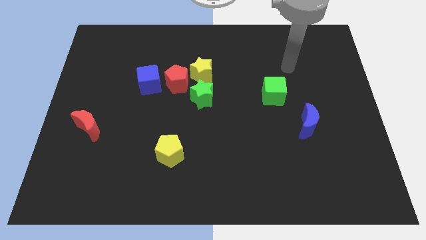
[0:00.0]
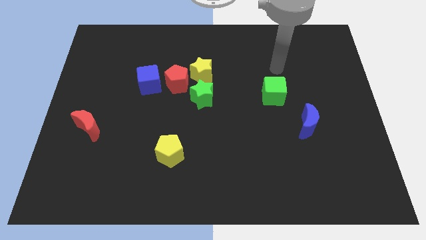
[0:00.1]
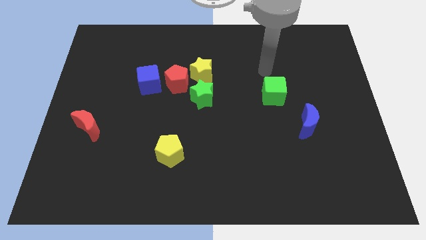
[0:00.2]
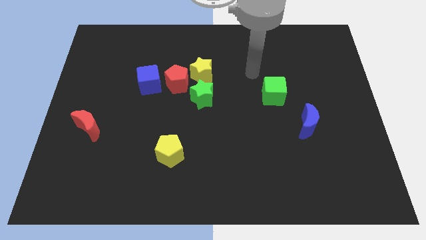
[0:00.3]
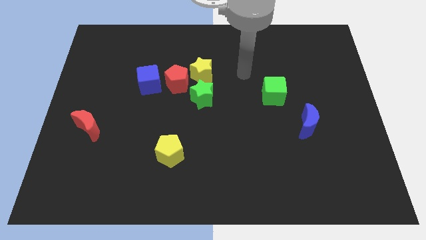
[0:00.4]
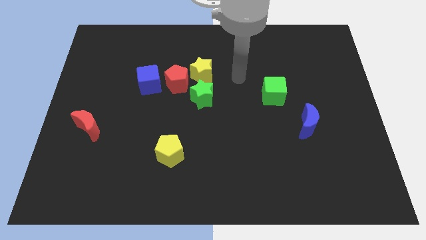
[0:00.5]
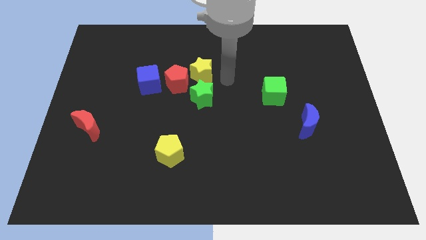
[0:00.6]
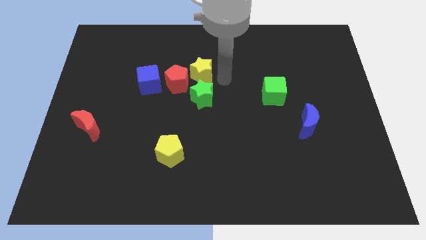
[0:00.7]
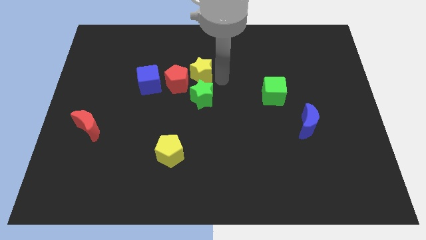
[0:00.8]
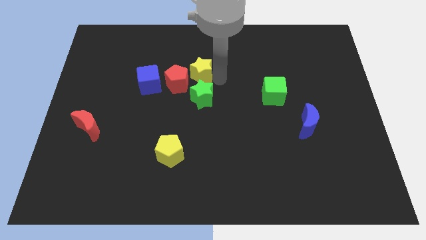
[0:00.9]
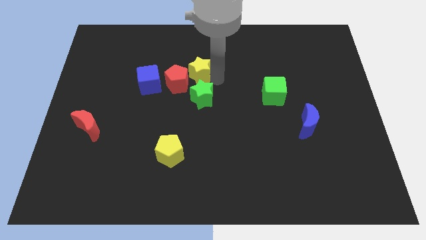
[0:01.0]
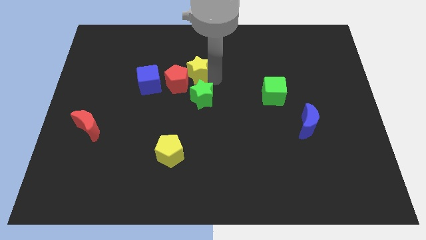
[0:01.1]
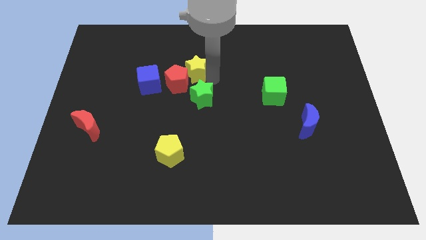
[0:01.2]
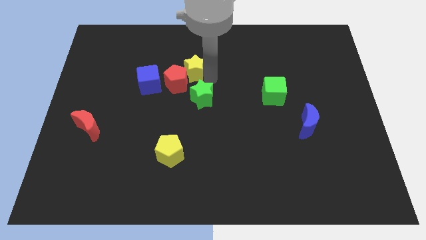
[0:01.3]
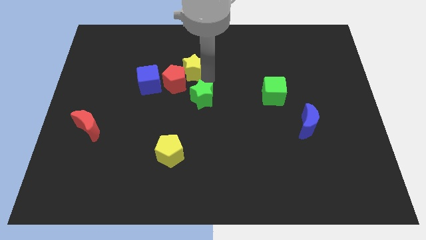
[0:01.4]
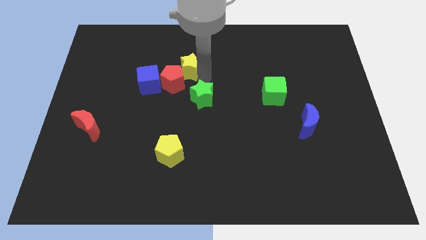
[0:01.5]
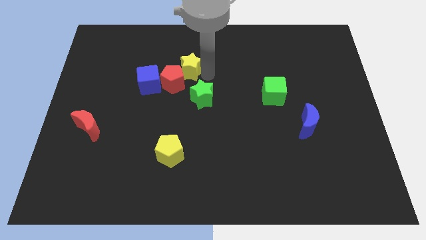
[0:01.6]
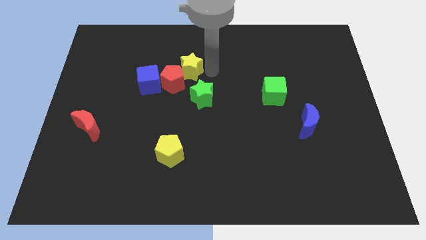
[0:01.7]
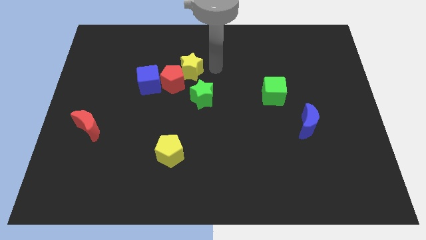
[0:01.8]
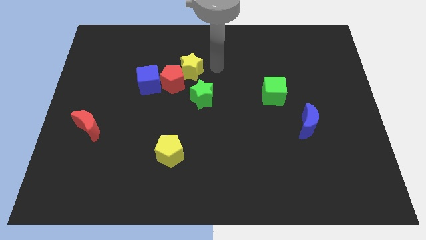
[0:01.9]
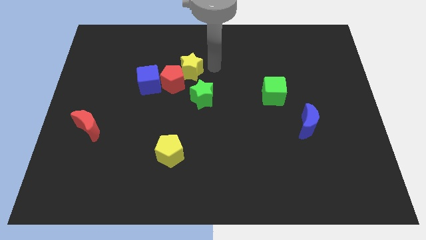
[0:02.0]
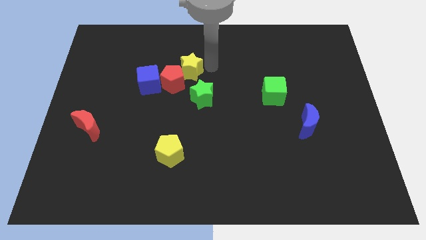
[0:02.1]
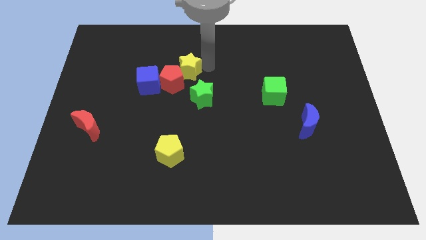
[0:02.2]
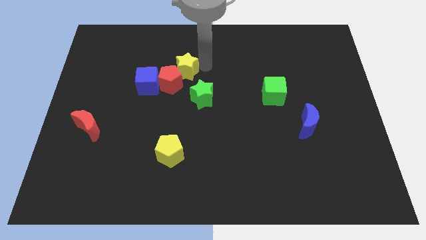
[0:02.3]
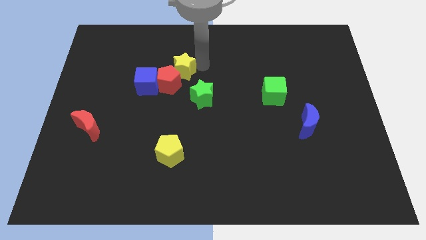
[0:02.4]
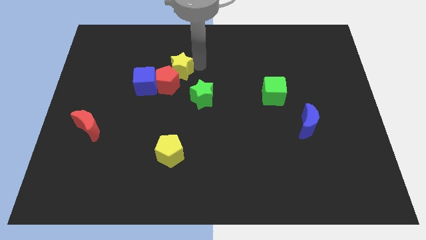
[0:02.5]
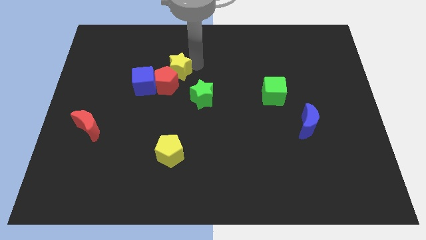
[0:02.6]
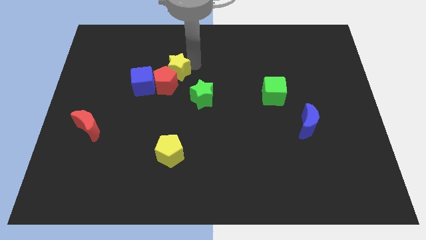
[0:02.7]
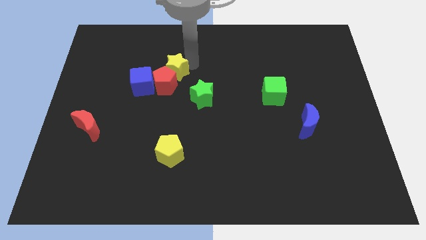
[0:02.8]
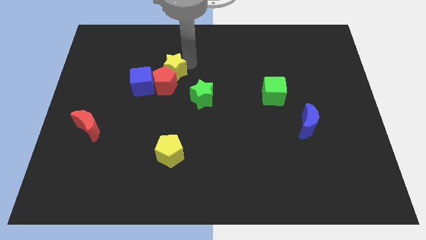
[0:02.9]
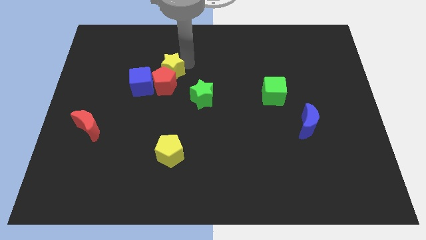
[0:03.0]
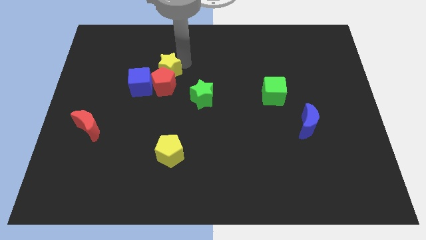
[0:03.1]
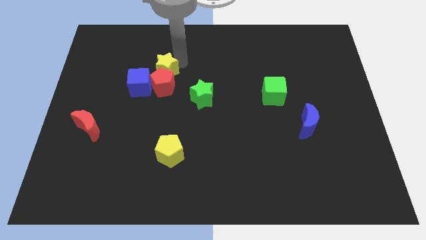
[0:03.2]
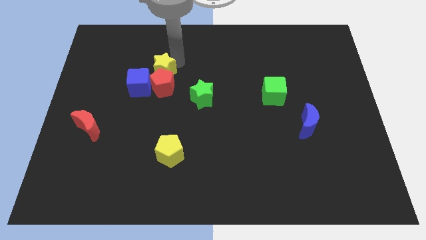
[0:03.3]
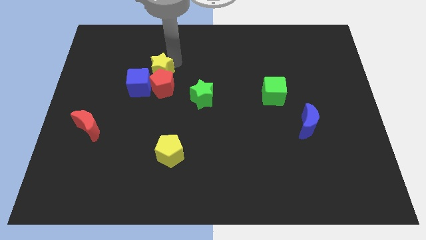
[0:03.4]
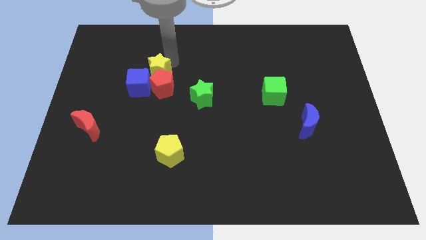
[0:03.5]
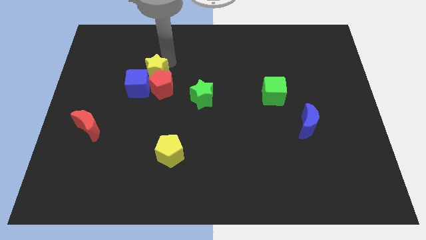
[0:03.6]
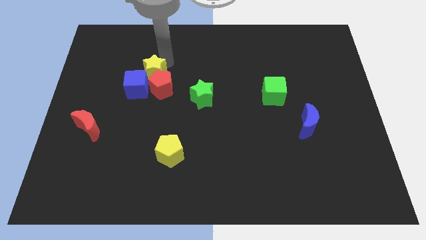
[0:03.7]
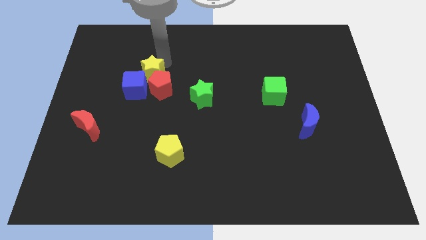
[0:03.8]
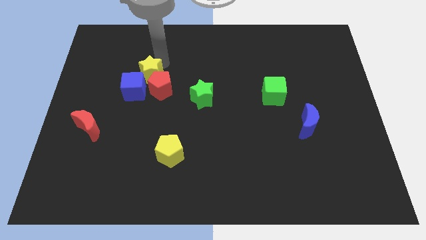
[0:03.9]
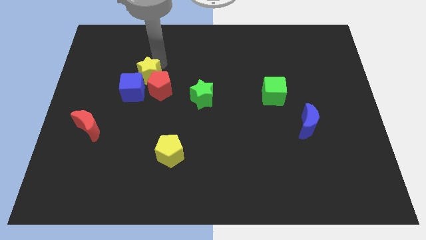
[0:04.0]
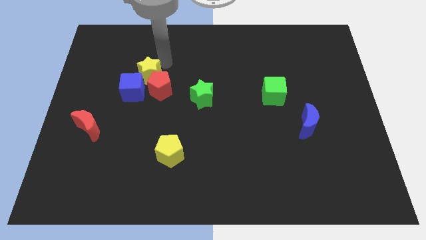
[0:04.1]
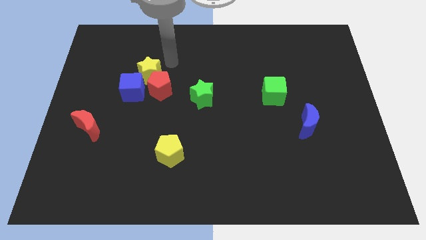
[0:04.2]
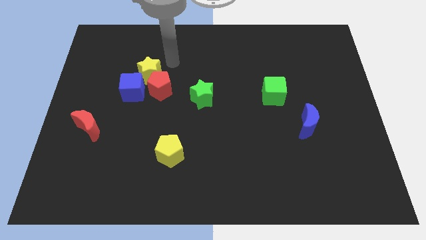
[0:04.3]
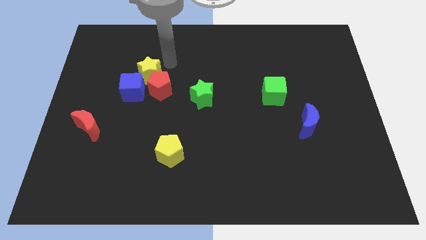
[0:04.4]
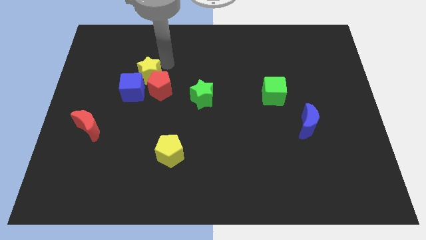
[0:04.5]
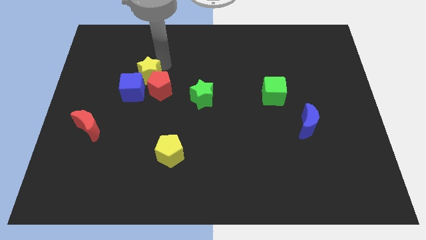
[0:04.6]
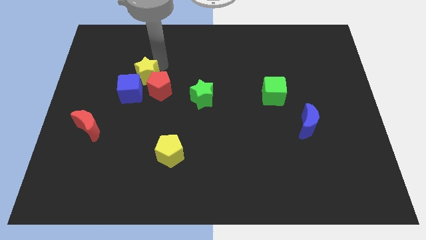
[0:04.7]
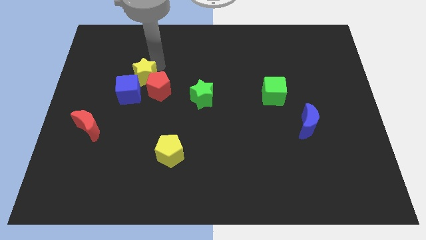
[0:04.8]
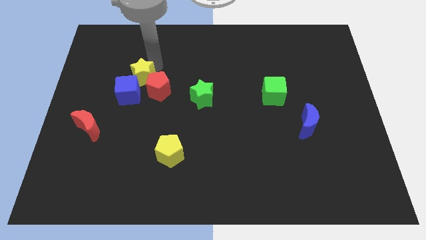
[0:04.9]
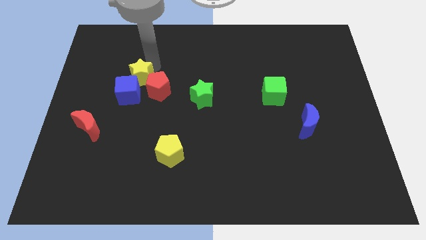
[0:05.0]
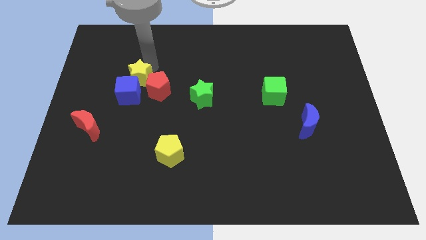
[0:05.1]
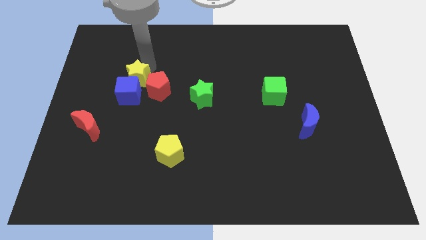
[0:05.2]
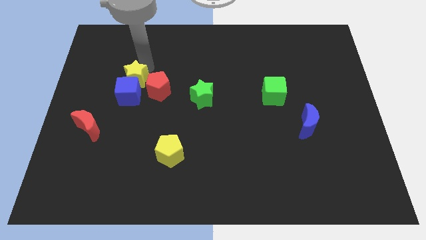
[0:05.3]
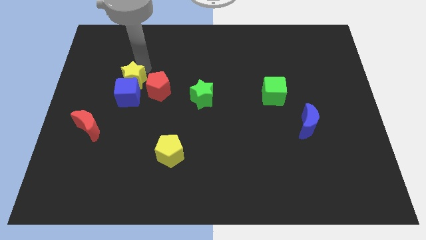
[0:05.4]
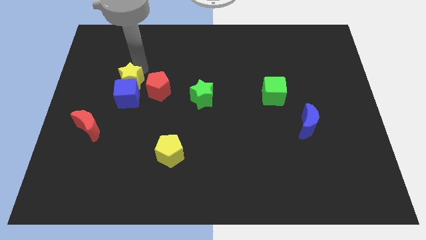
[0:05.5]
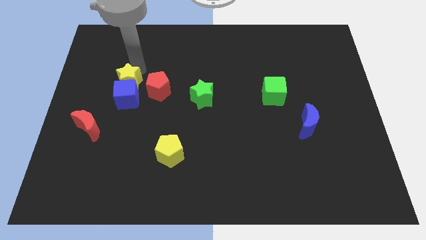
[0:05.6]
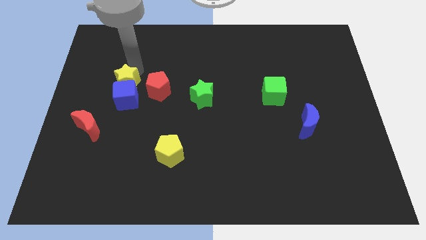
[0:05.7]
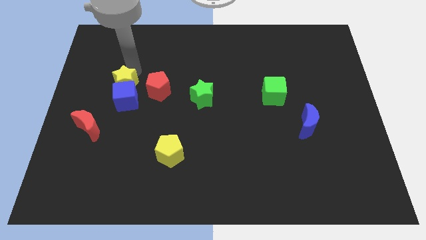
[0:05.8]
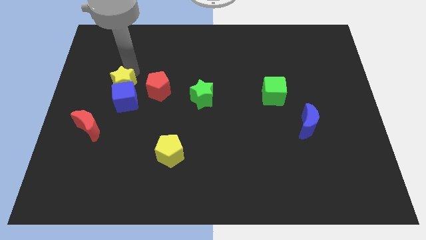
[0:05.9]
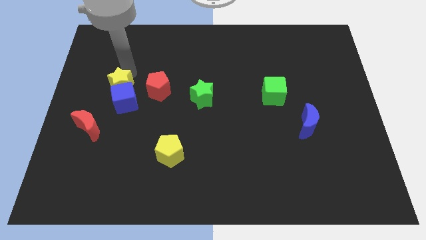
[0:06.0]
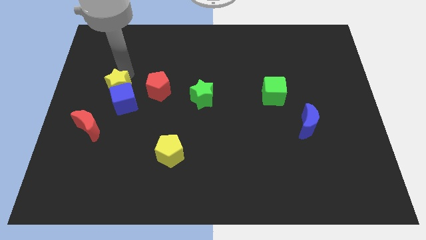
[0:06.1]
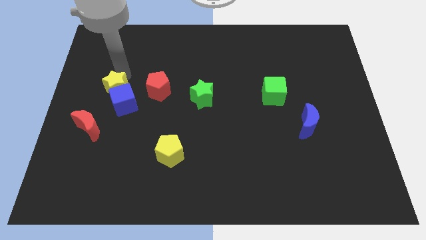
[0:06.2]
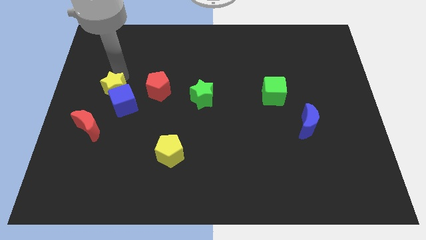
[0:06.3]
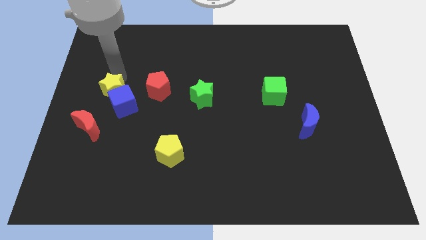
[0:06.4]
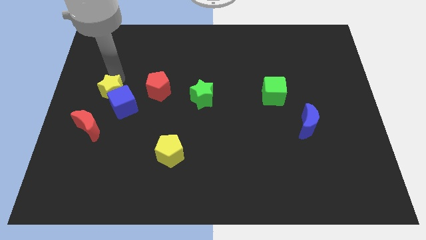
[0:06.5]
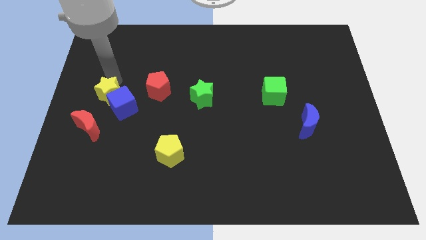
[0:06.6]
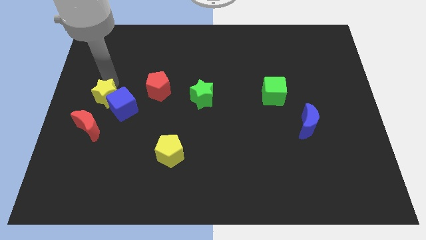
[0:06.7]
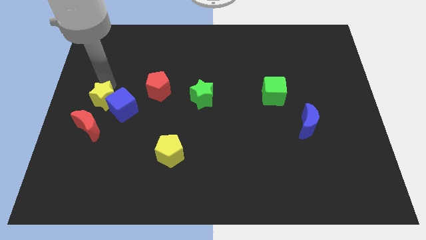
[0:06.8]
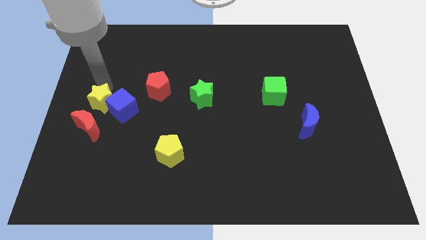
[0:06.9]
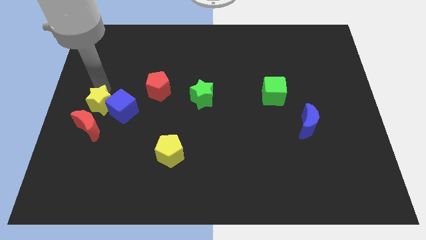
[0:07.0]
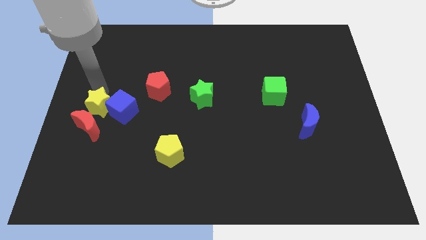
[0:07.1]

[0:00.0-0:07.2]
put the yellow star close to the red moon

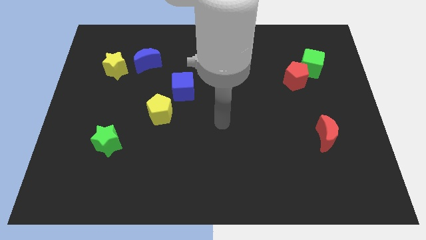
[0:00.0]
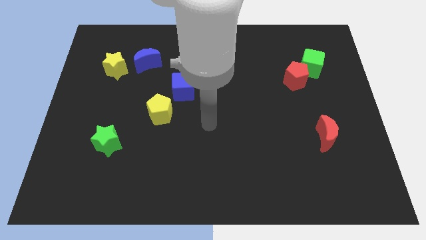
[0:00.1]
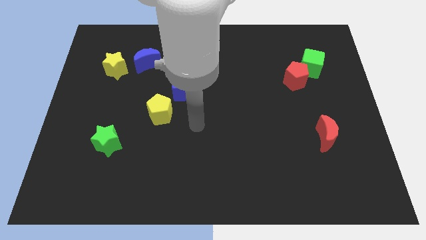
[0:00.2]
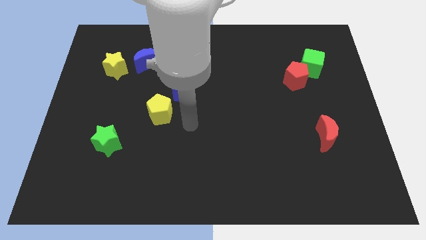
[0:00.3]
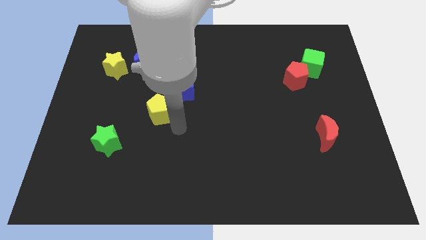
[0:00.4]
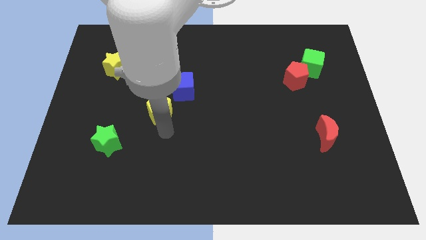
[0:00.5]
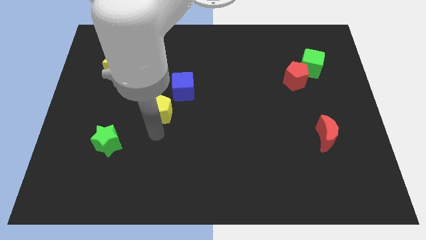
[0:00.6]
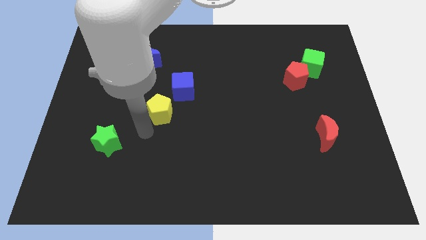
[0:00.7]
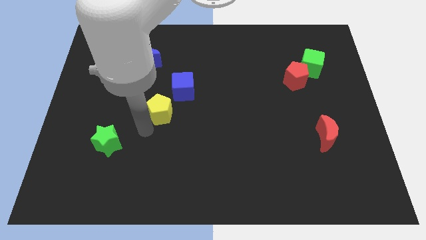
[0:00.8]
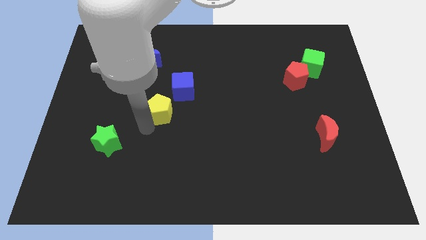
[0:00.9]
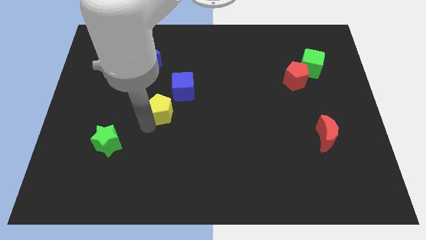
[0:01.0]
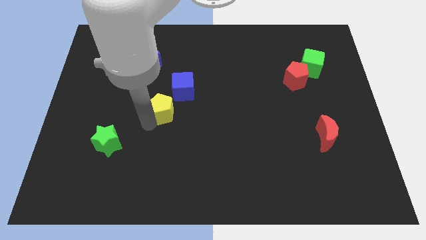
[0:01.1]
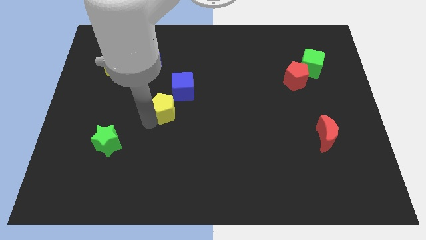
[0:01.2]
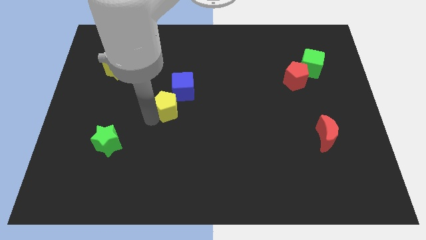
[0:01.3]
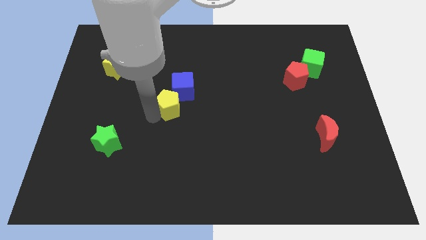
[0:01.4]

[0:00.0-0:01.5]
put the yellow pentagon close to the blue cube
